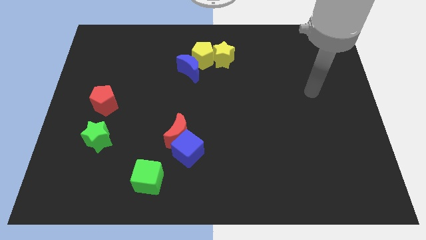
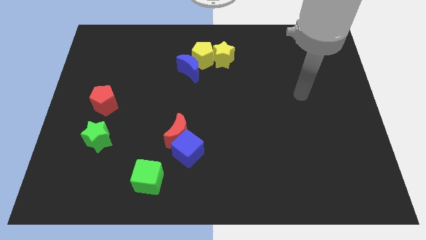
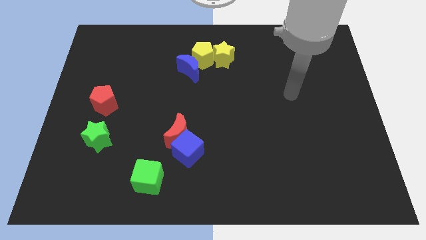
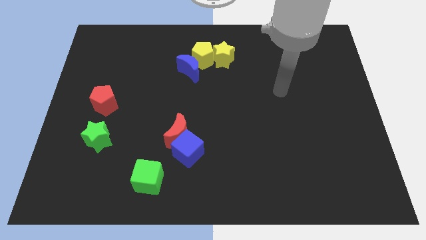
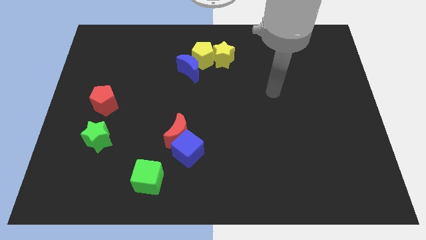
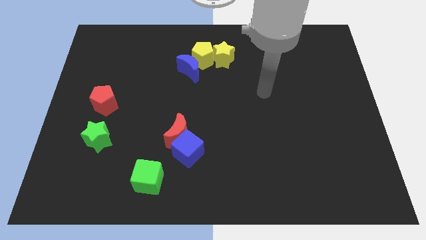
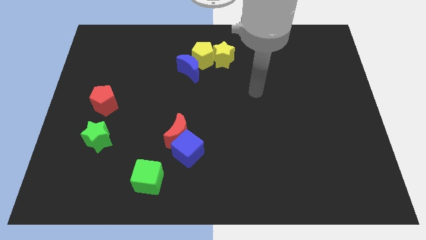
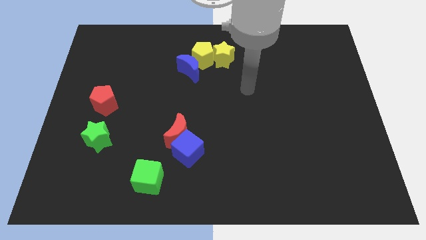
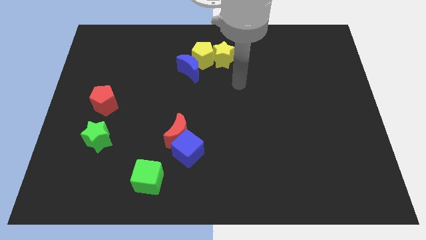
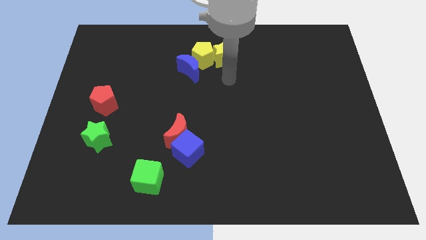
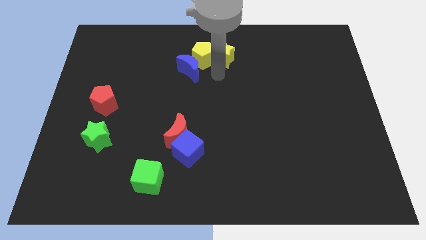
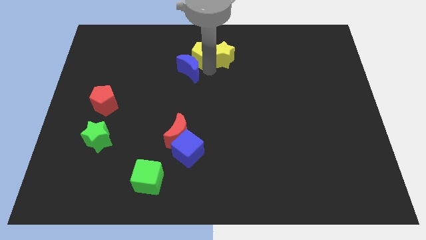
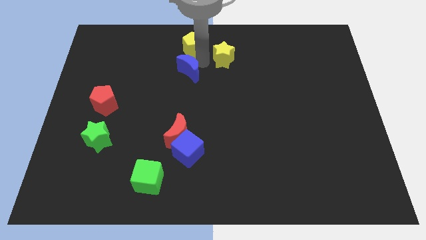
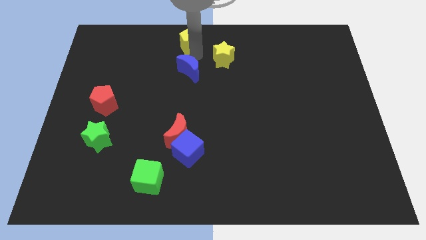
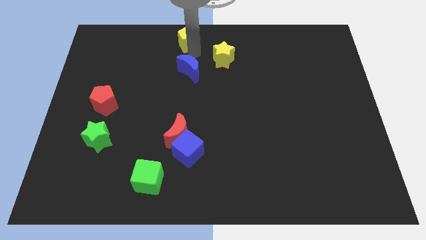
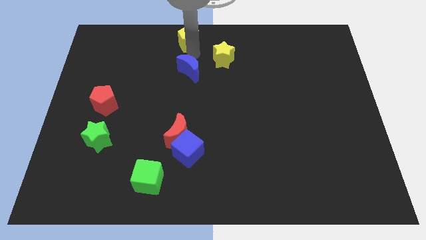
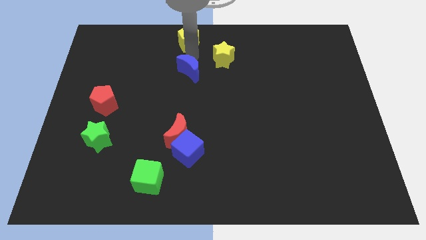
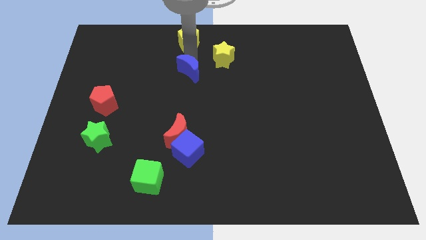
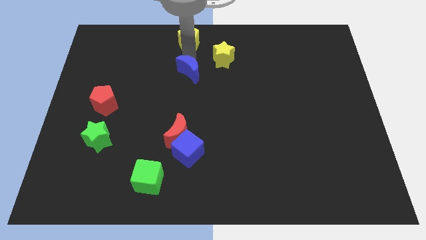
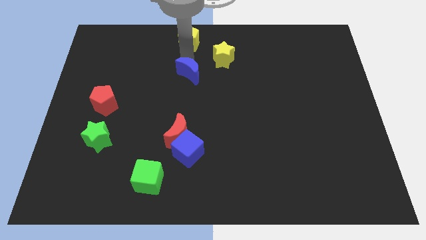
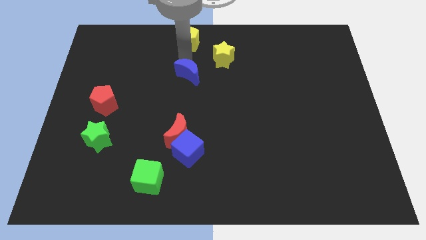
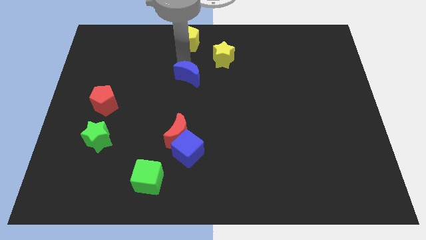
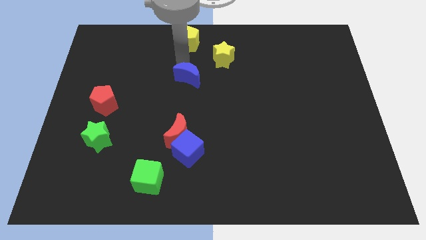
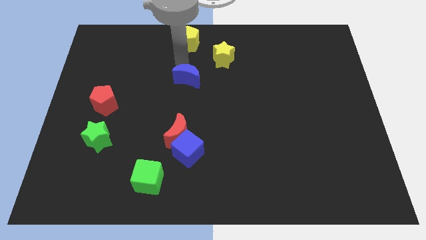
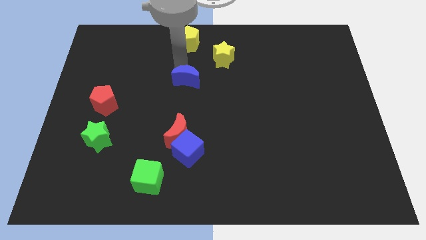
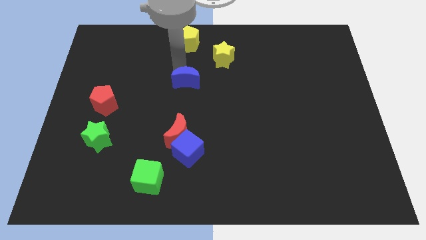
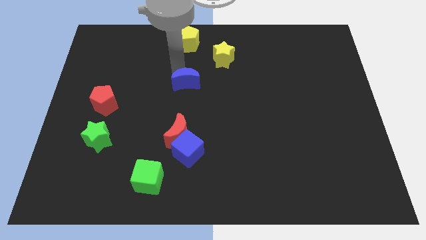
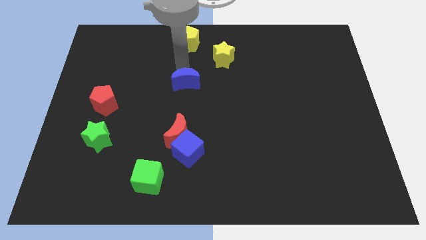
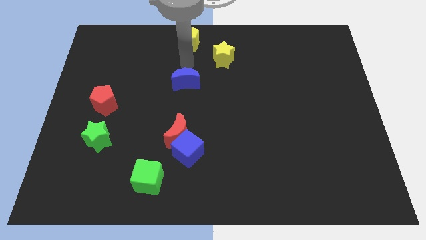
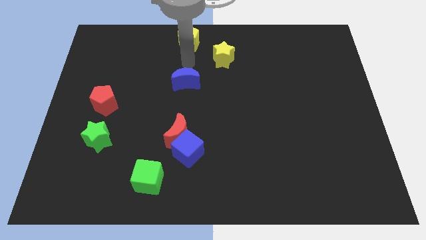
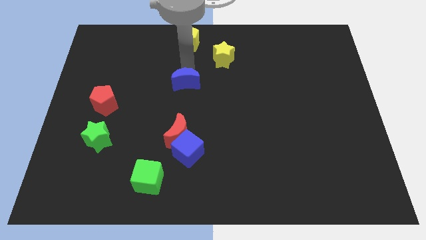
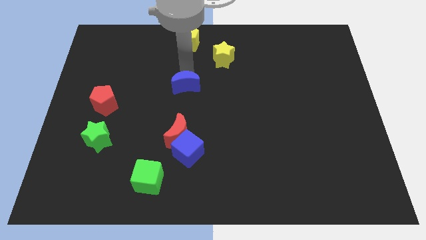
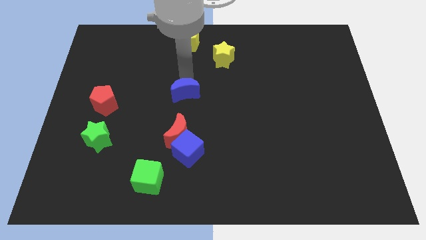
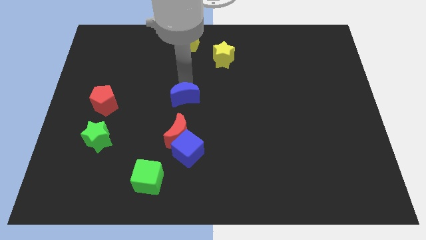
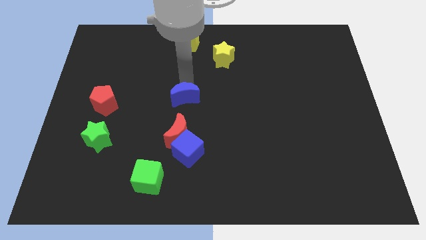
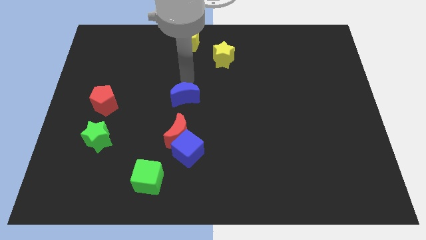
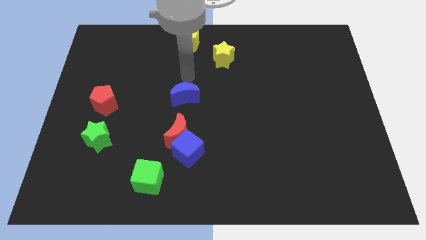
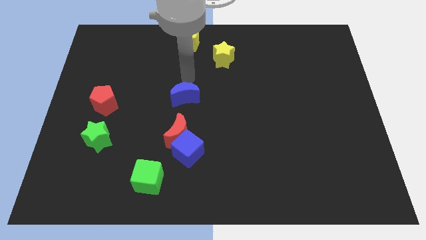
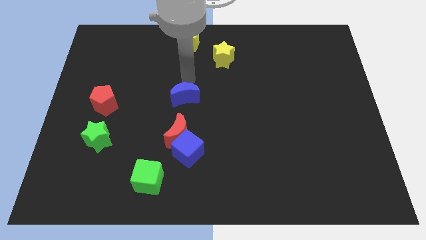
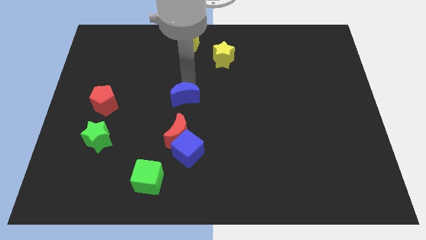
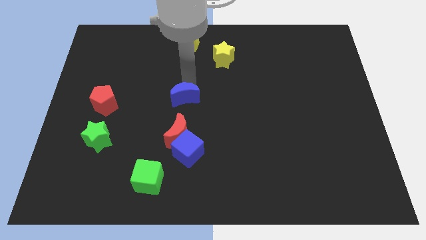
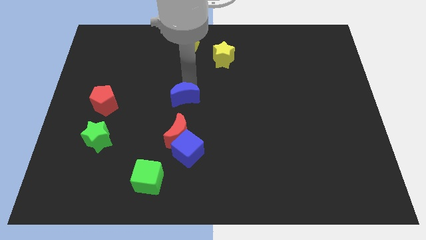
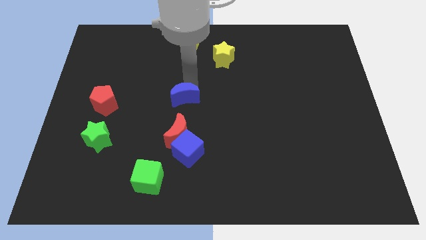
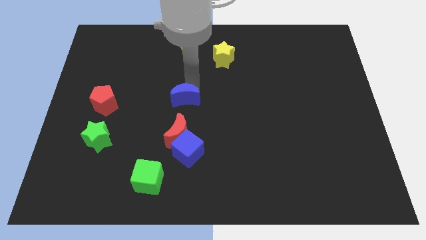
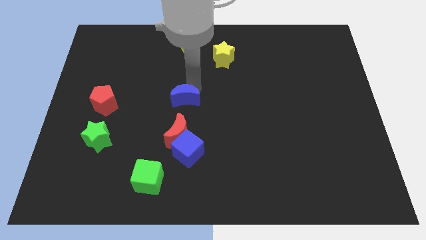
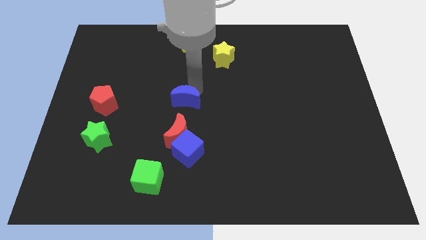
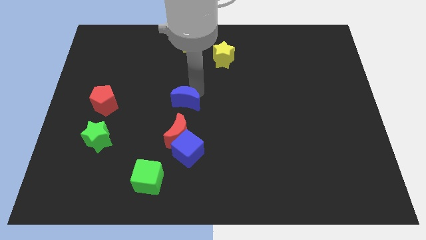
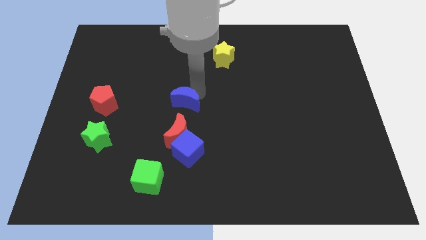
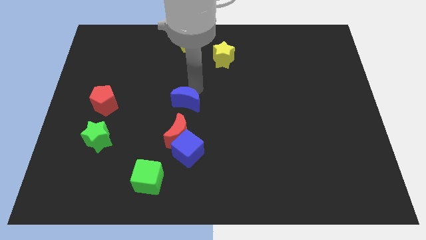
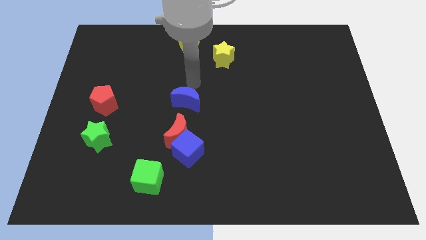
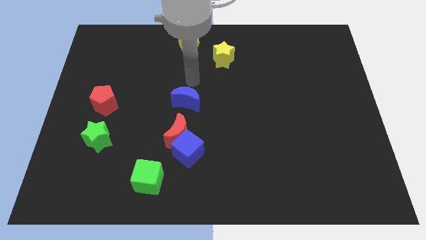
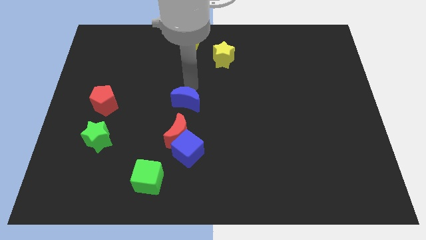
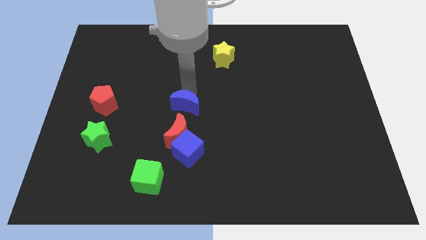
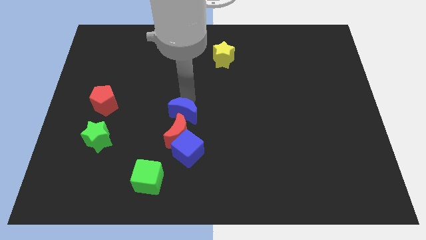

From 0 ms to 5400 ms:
push the blue moon close to the red moon

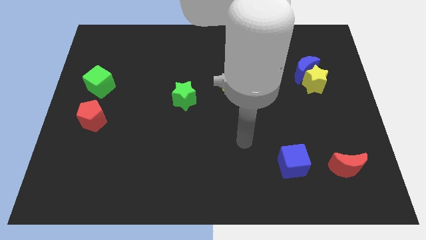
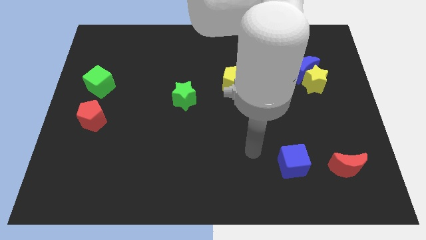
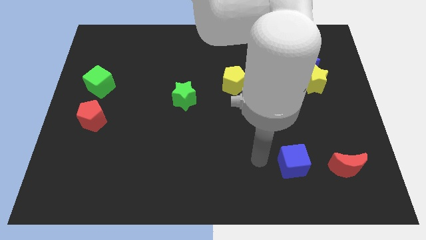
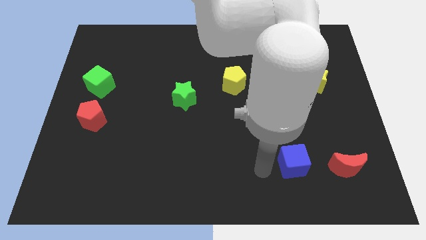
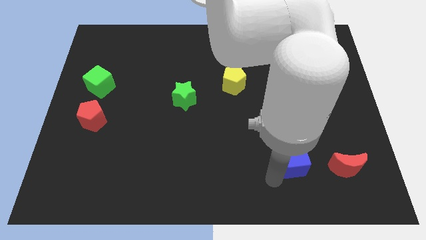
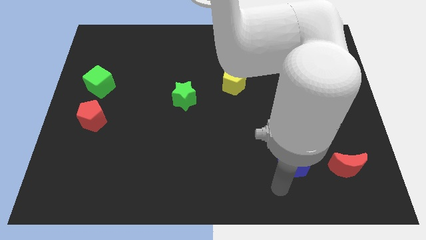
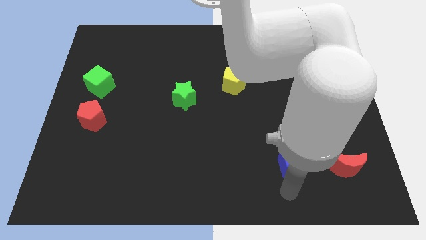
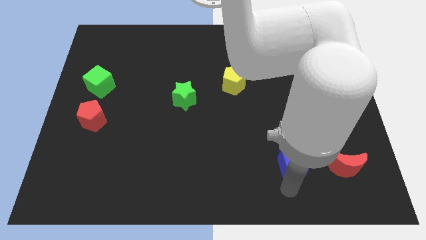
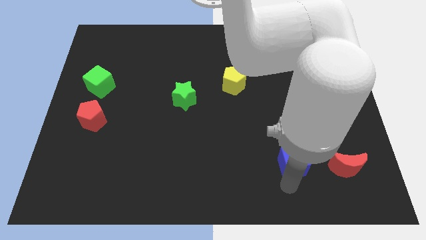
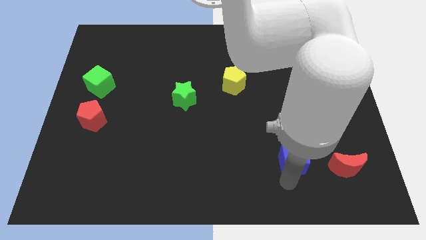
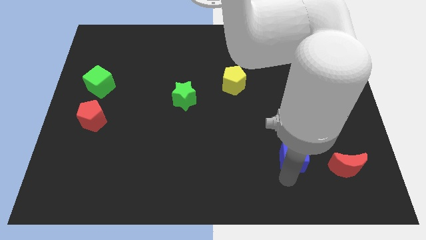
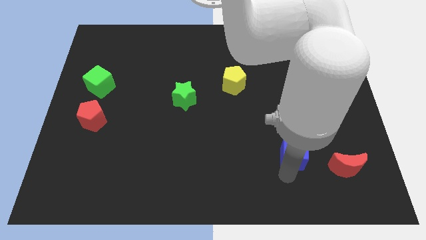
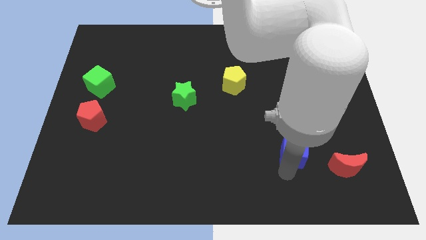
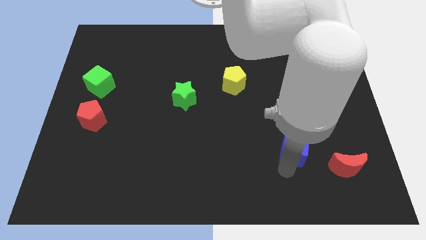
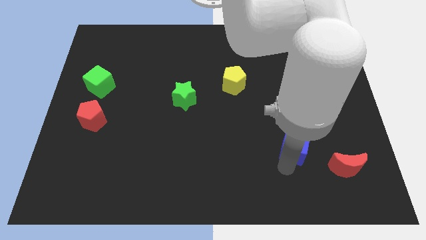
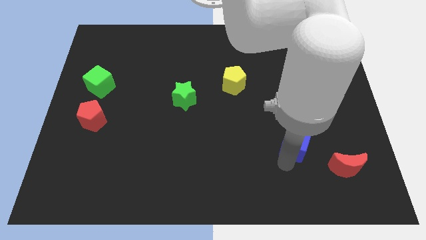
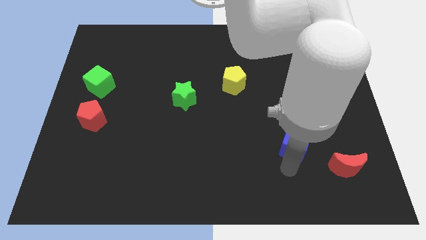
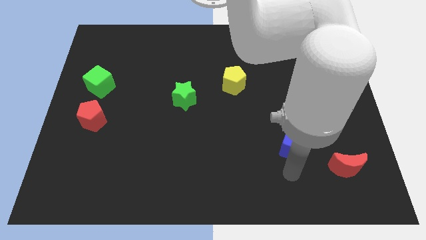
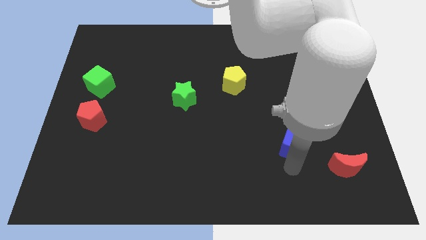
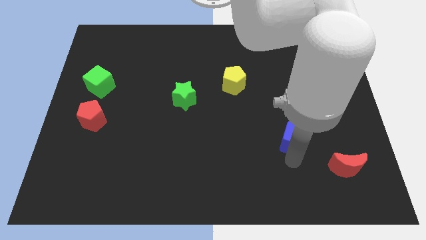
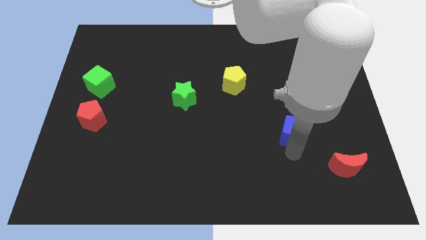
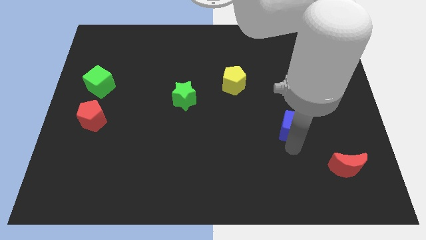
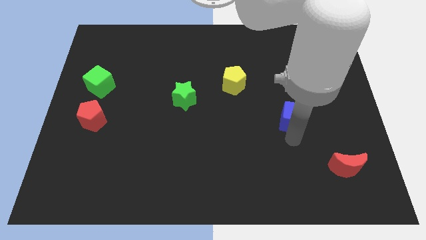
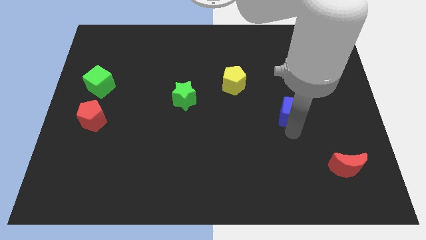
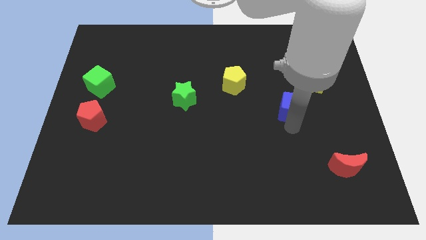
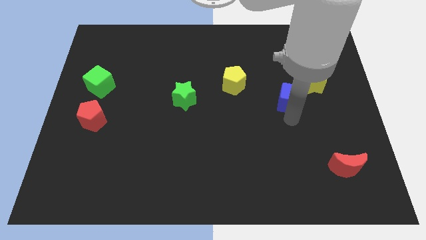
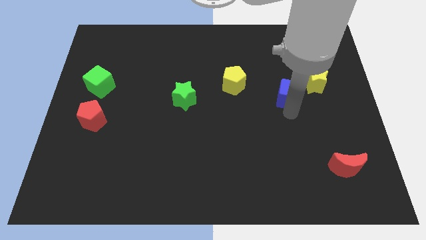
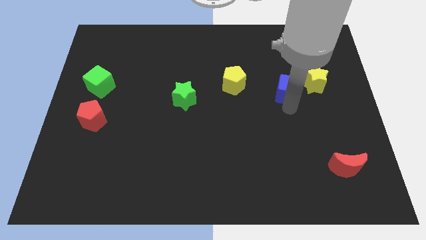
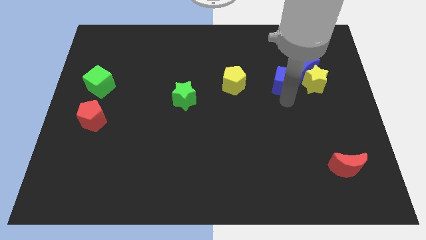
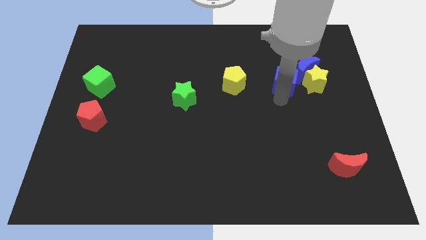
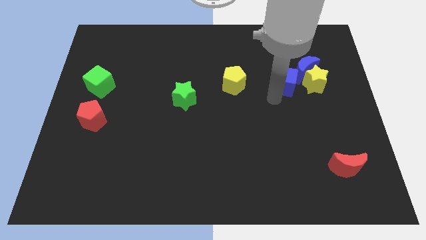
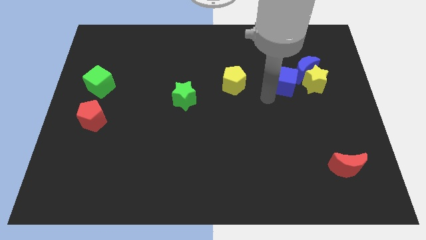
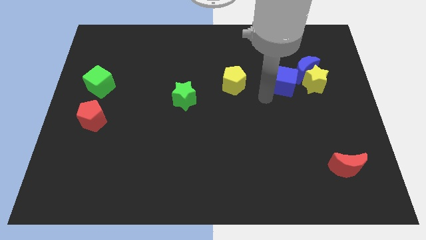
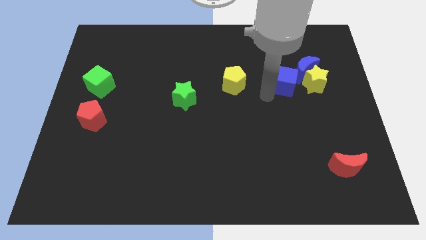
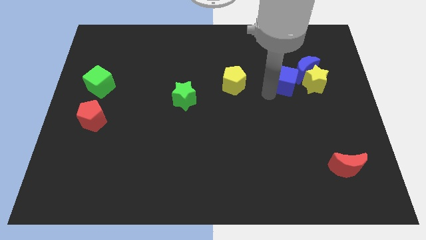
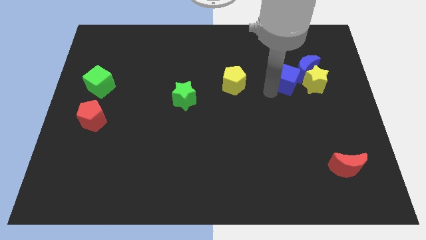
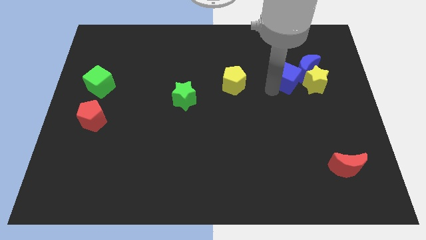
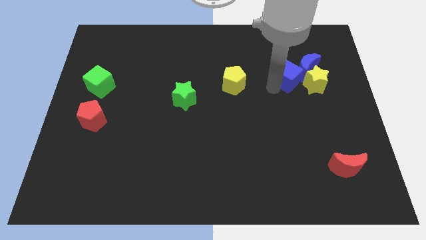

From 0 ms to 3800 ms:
slide the blue cube towards the blue moon
